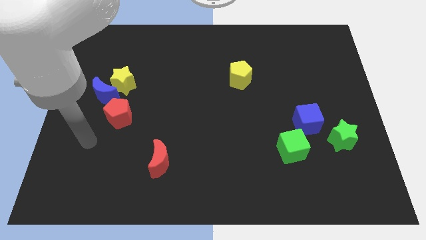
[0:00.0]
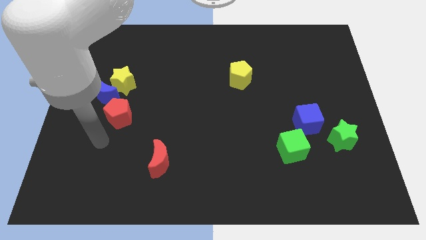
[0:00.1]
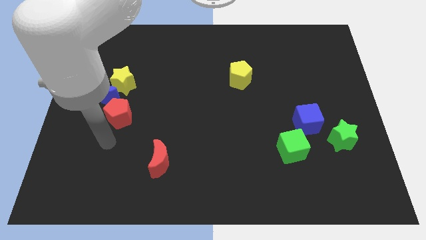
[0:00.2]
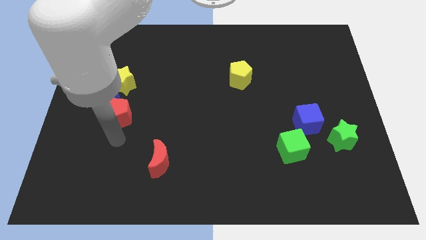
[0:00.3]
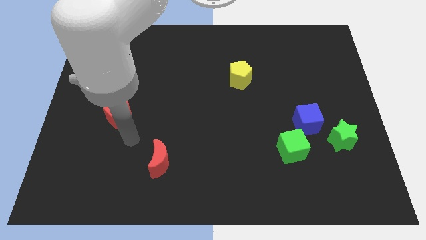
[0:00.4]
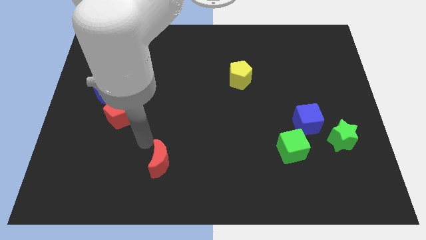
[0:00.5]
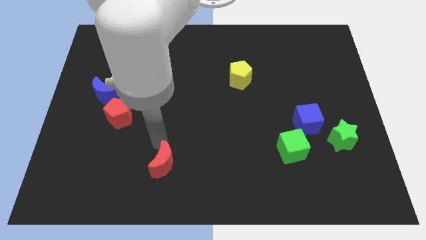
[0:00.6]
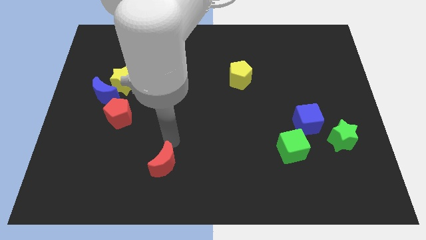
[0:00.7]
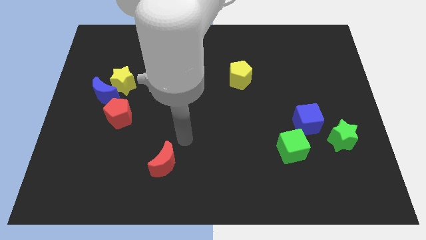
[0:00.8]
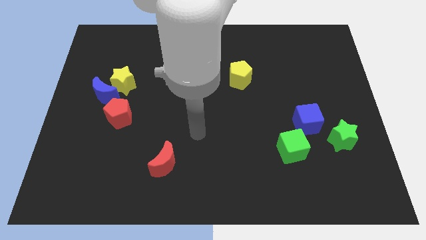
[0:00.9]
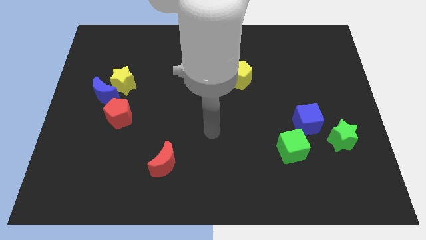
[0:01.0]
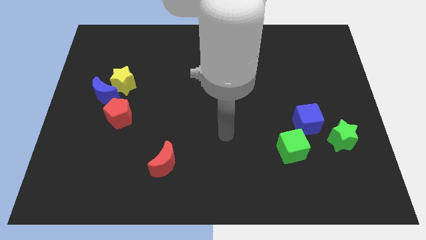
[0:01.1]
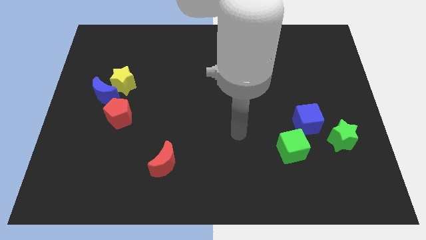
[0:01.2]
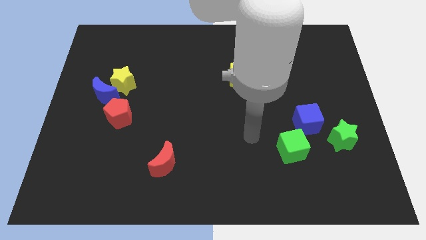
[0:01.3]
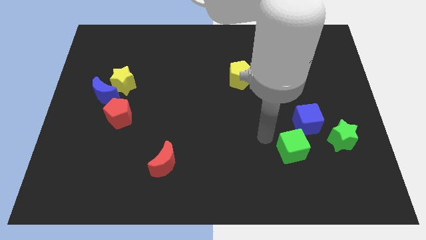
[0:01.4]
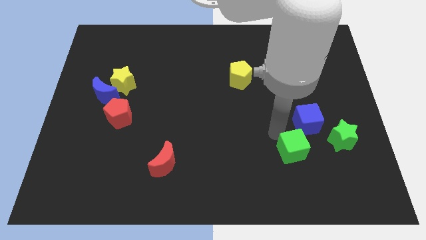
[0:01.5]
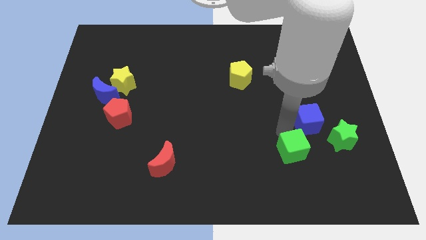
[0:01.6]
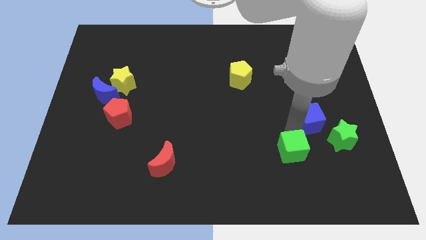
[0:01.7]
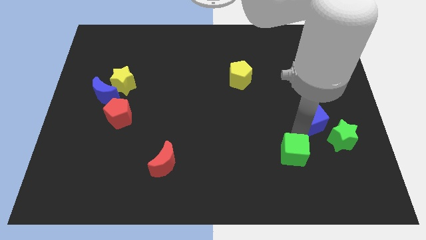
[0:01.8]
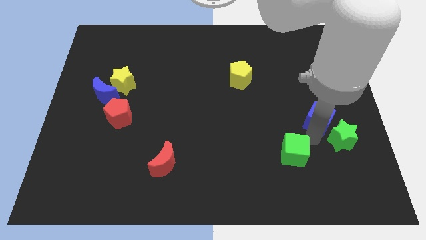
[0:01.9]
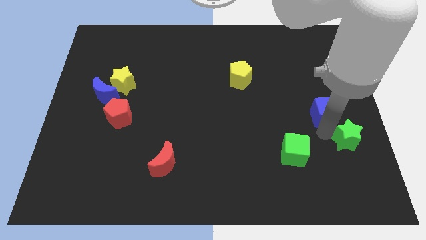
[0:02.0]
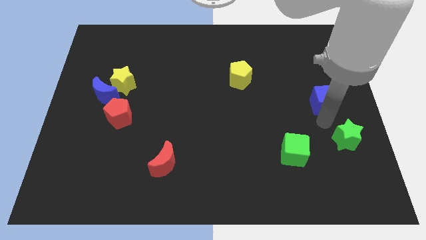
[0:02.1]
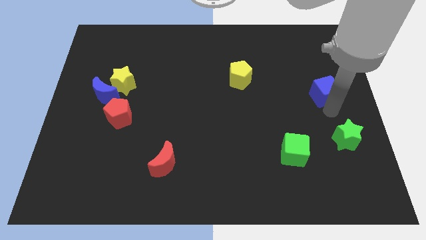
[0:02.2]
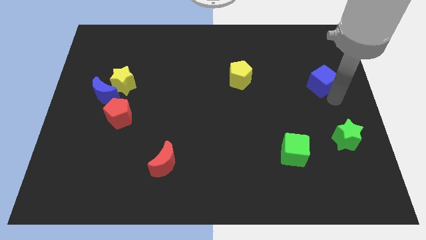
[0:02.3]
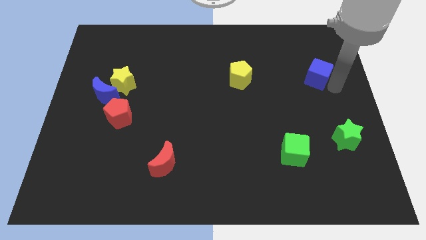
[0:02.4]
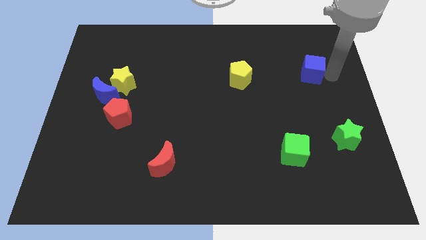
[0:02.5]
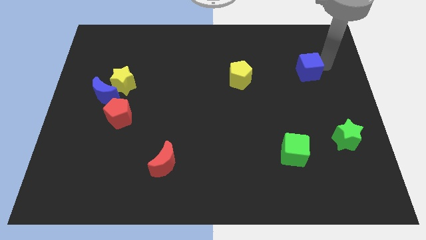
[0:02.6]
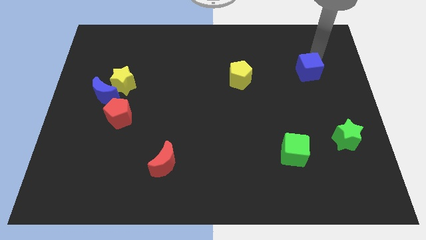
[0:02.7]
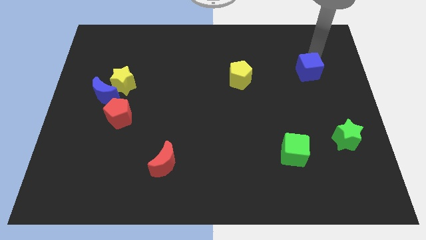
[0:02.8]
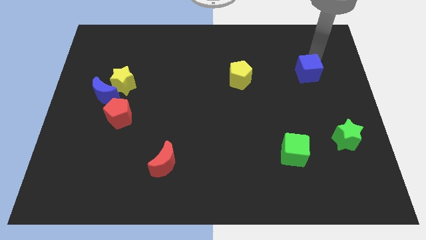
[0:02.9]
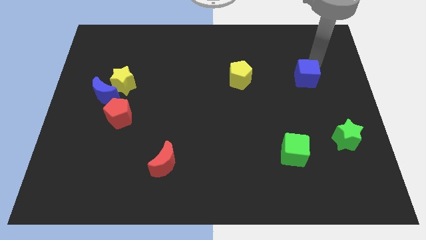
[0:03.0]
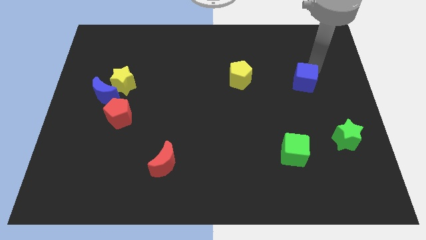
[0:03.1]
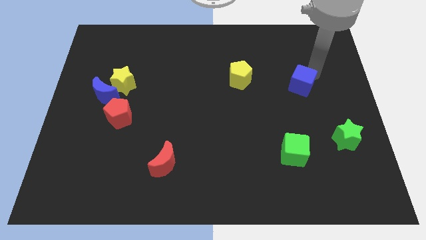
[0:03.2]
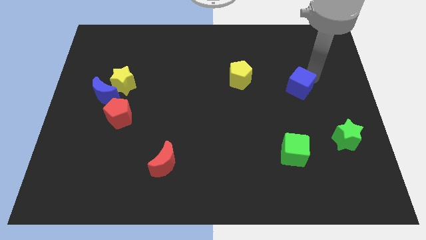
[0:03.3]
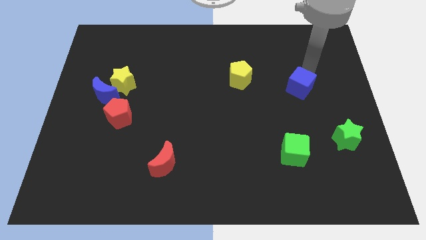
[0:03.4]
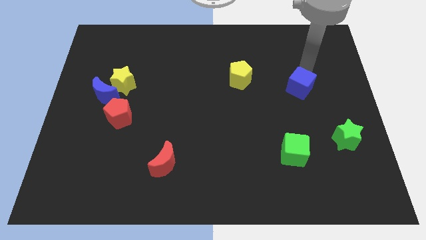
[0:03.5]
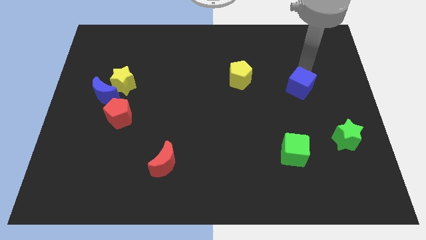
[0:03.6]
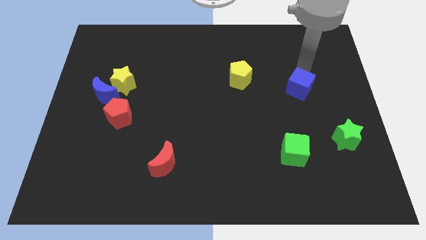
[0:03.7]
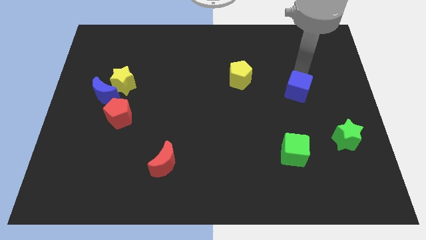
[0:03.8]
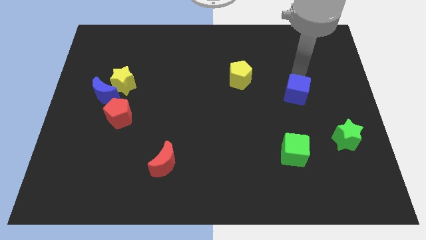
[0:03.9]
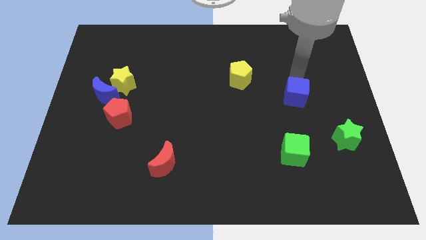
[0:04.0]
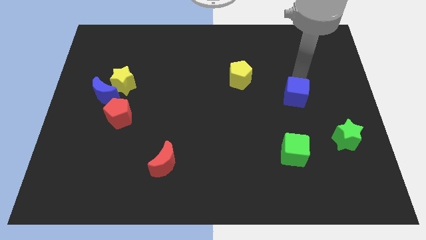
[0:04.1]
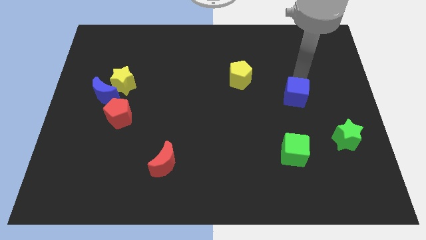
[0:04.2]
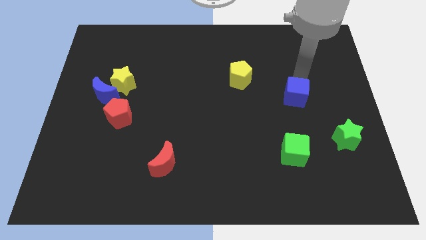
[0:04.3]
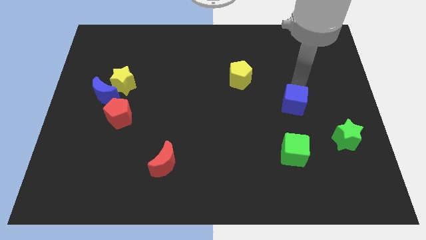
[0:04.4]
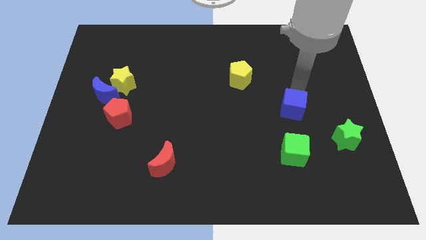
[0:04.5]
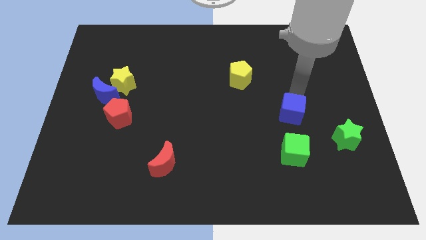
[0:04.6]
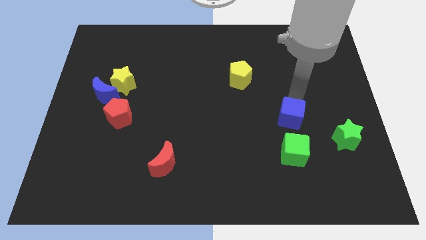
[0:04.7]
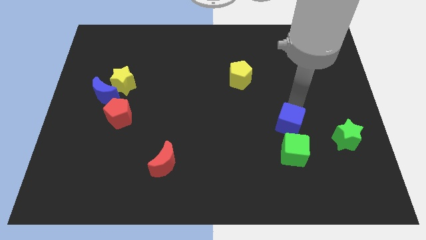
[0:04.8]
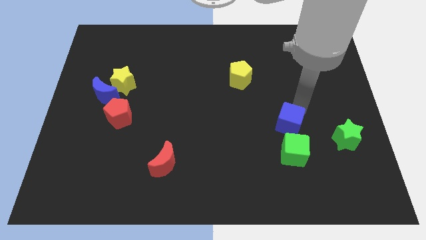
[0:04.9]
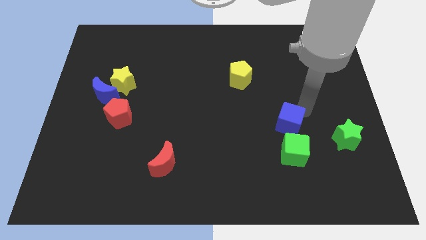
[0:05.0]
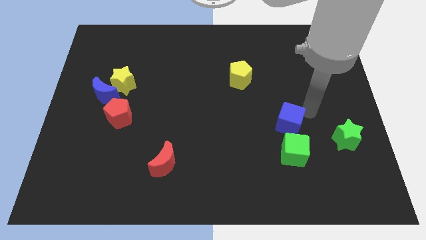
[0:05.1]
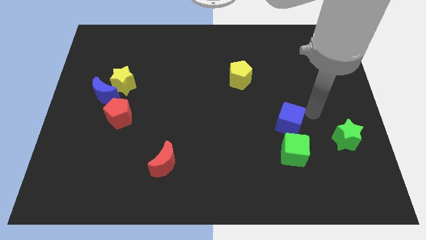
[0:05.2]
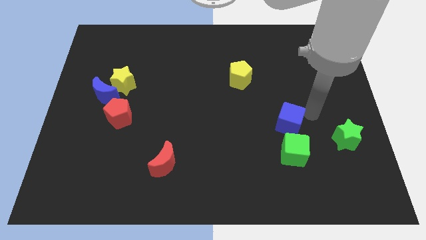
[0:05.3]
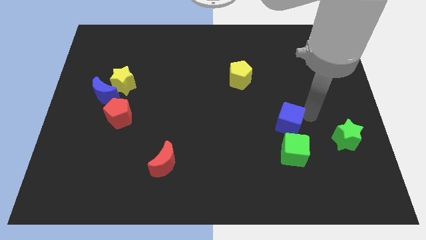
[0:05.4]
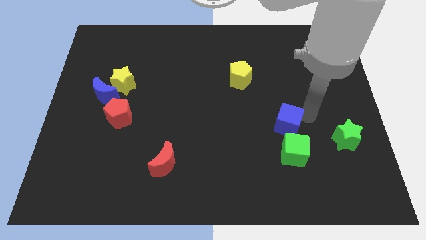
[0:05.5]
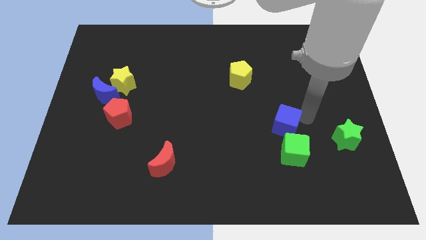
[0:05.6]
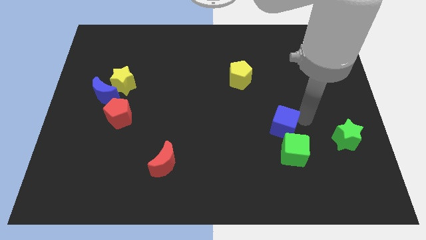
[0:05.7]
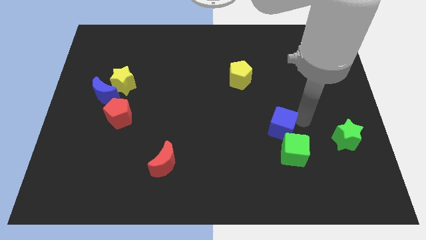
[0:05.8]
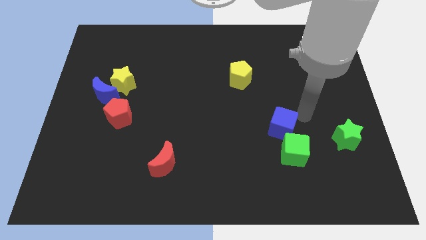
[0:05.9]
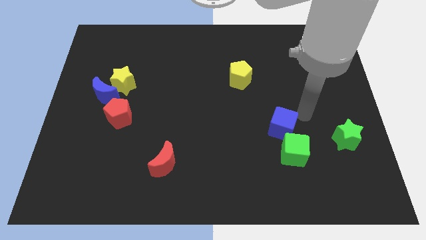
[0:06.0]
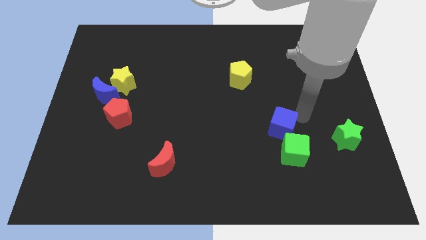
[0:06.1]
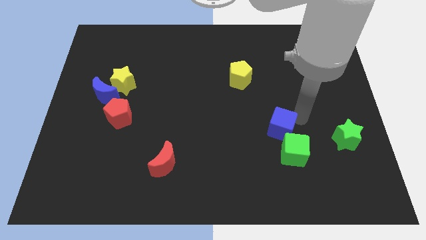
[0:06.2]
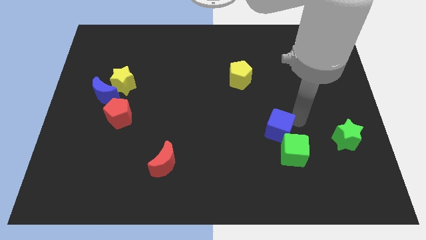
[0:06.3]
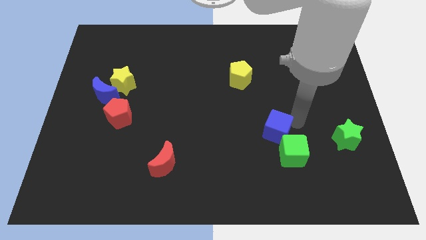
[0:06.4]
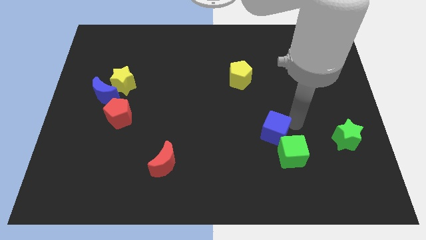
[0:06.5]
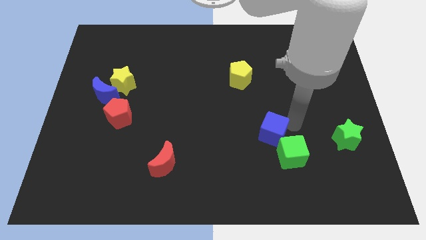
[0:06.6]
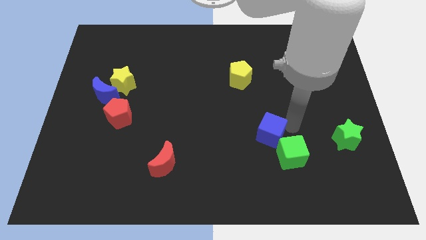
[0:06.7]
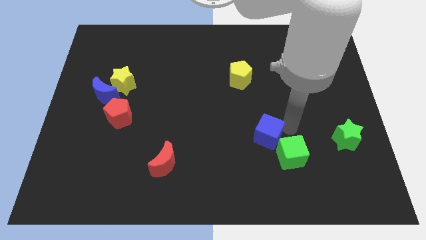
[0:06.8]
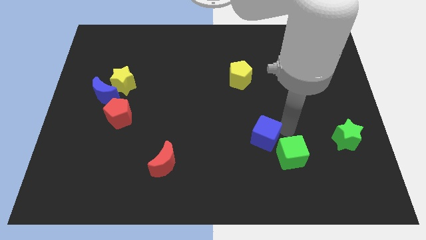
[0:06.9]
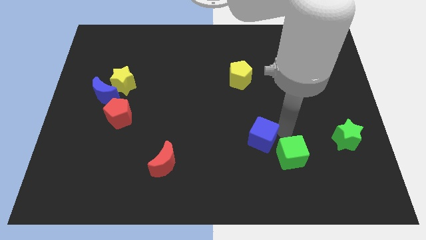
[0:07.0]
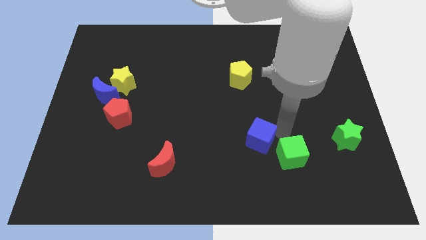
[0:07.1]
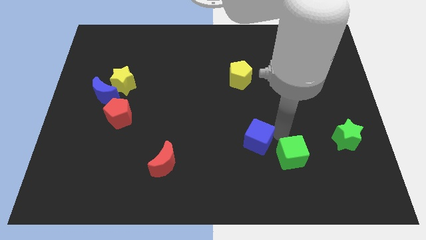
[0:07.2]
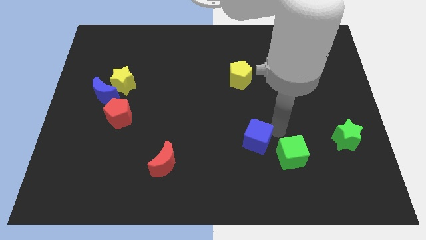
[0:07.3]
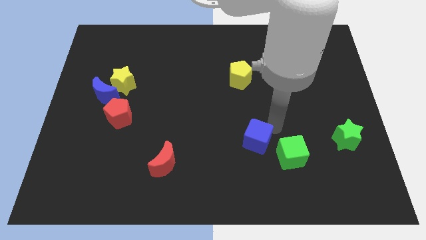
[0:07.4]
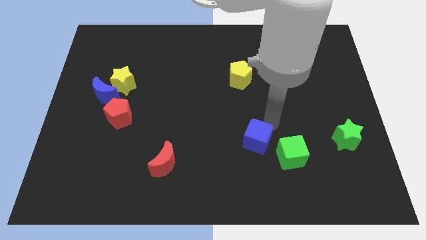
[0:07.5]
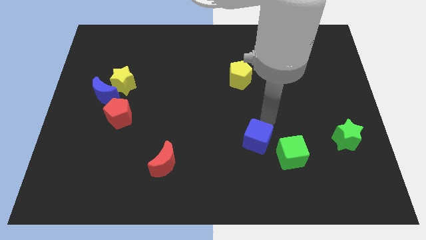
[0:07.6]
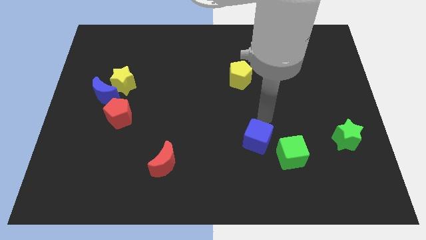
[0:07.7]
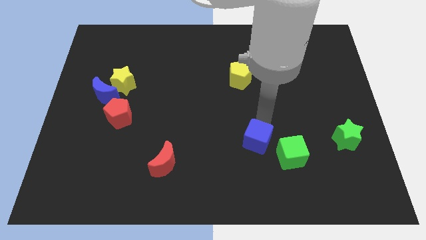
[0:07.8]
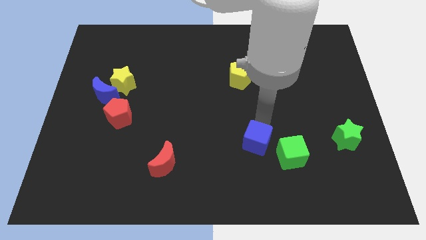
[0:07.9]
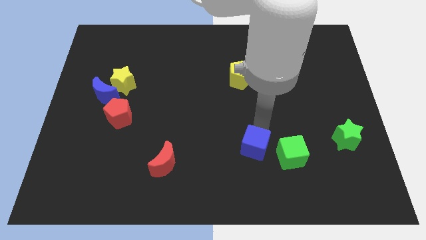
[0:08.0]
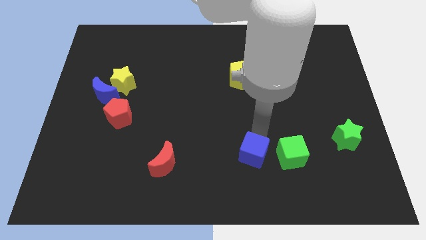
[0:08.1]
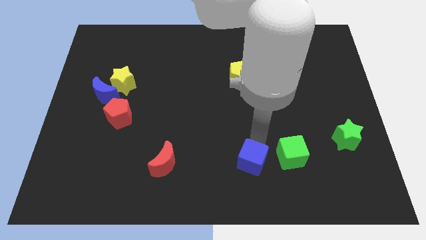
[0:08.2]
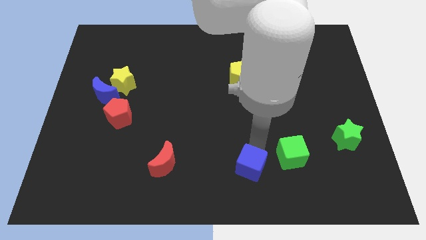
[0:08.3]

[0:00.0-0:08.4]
move the blue cube to the bottom
